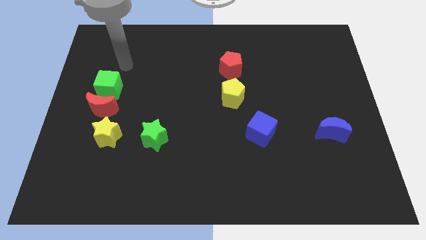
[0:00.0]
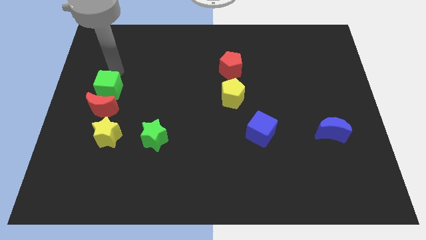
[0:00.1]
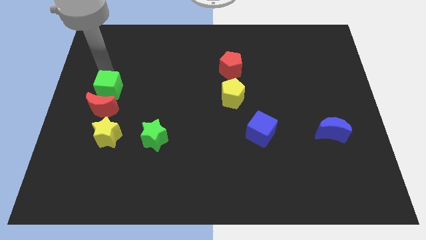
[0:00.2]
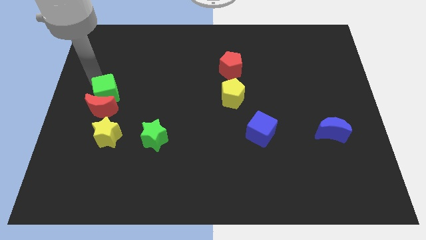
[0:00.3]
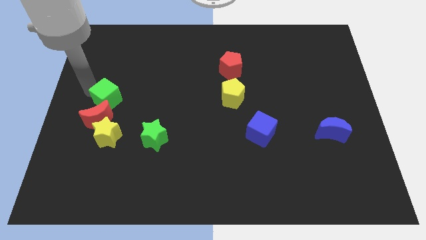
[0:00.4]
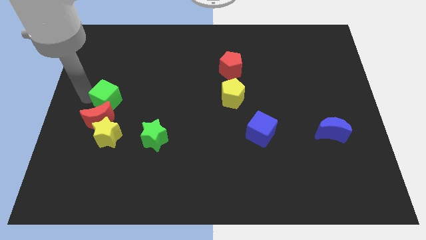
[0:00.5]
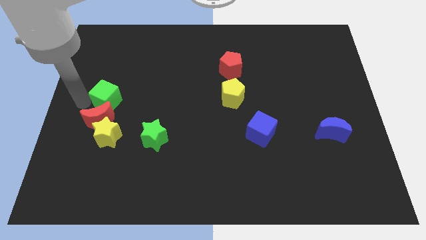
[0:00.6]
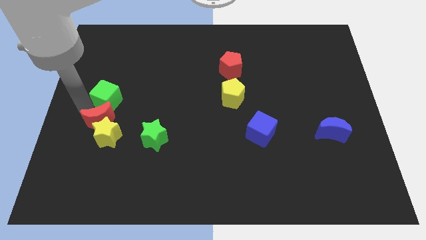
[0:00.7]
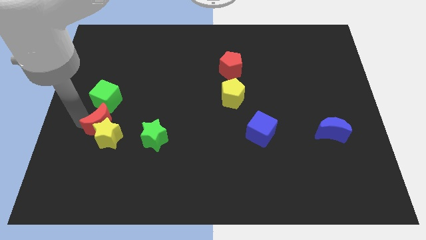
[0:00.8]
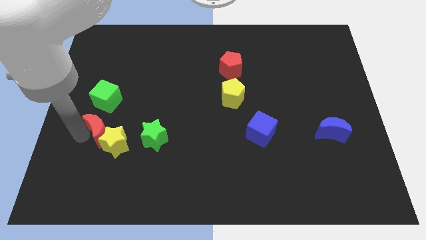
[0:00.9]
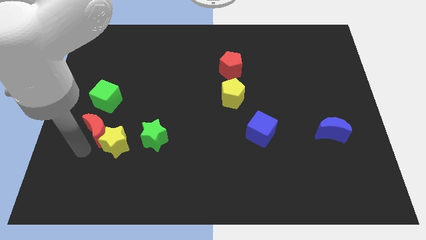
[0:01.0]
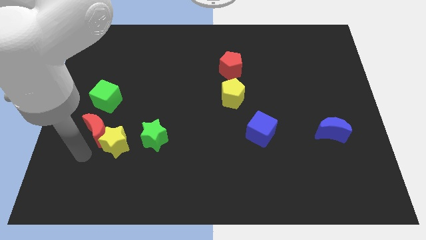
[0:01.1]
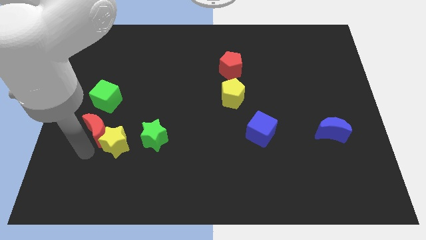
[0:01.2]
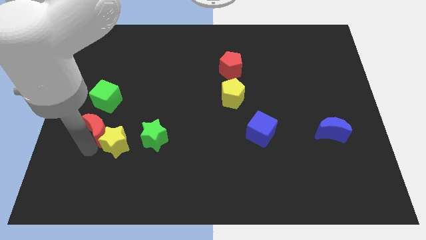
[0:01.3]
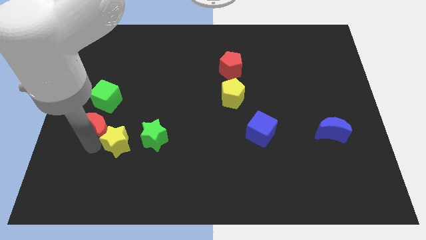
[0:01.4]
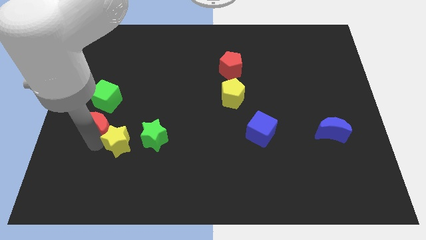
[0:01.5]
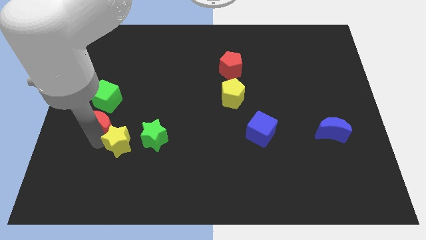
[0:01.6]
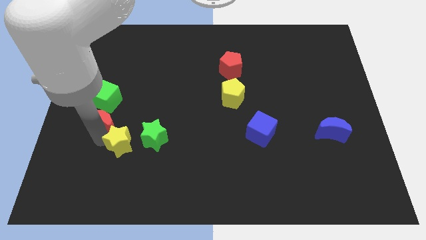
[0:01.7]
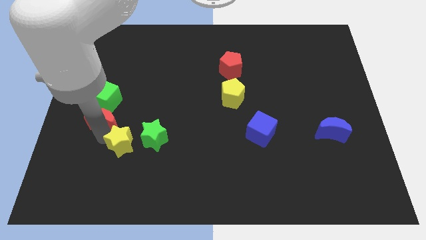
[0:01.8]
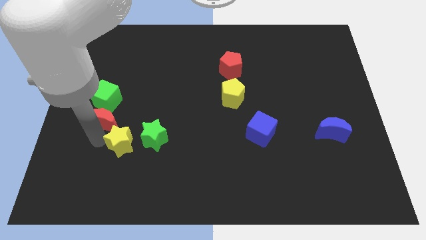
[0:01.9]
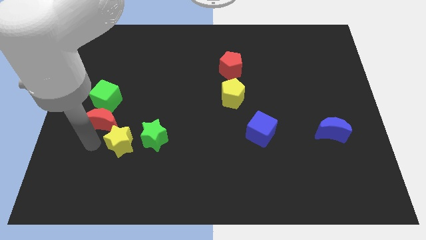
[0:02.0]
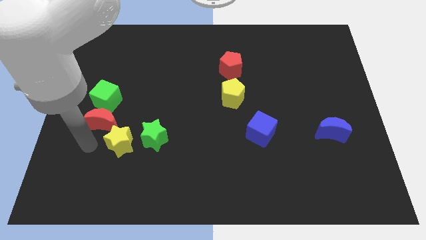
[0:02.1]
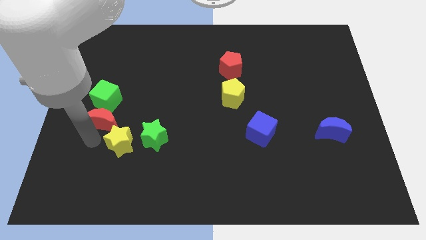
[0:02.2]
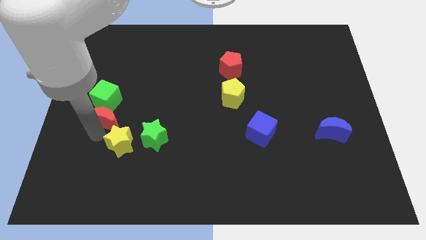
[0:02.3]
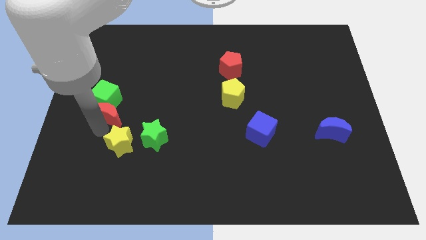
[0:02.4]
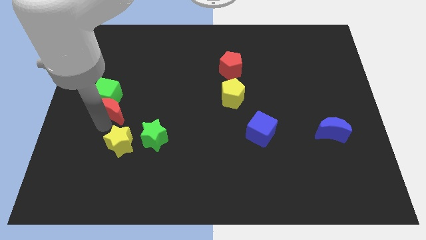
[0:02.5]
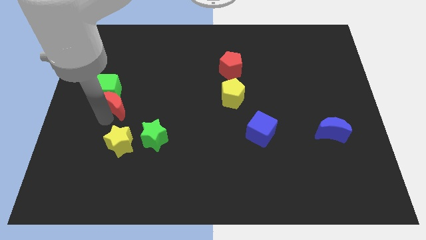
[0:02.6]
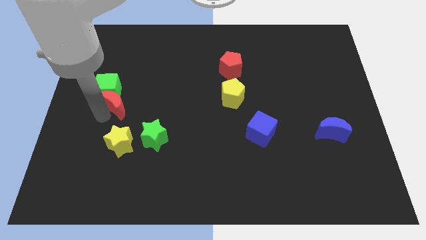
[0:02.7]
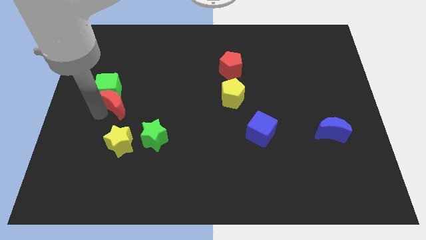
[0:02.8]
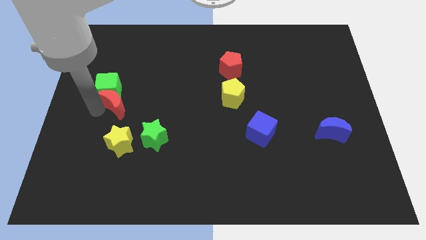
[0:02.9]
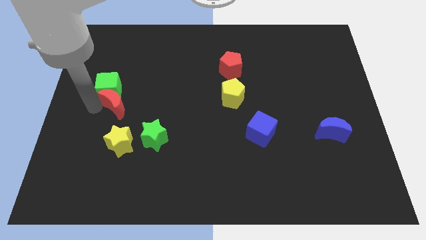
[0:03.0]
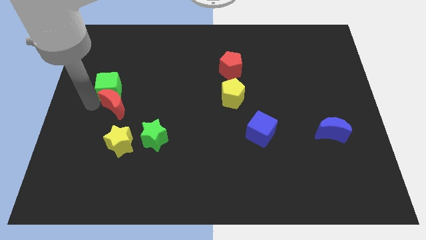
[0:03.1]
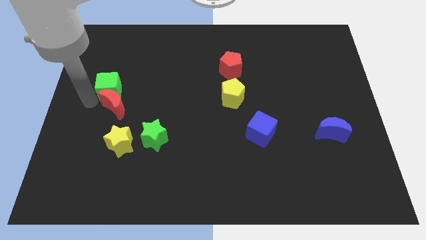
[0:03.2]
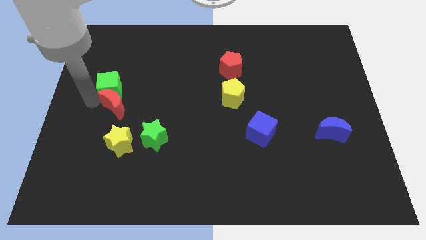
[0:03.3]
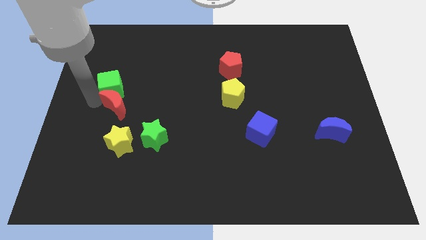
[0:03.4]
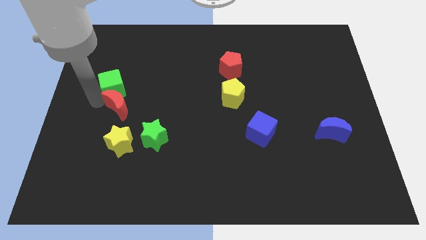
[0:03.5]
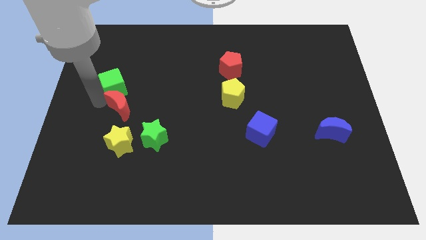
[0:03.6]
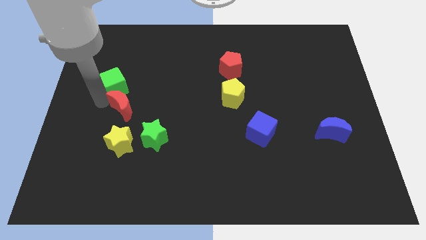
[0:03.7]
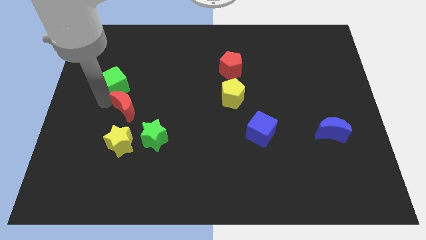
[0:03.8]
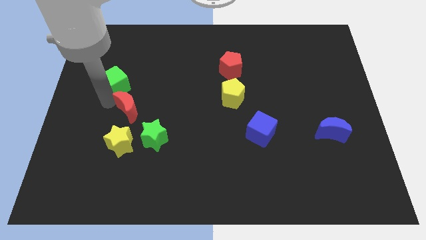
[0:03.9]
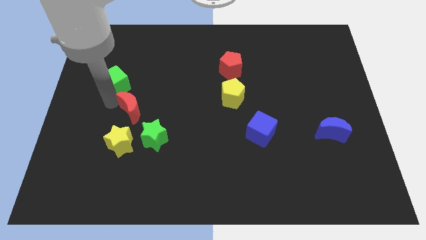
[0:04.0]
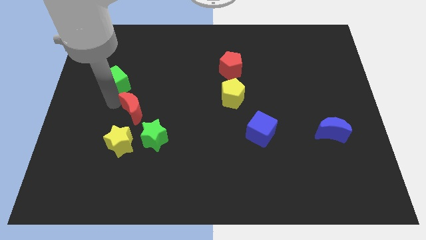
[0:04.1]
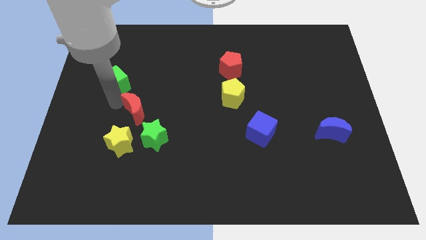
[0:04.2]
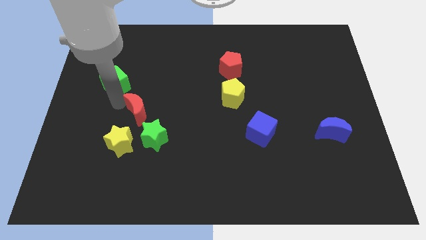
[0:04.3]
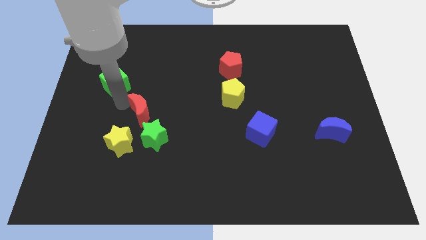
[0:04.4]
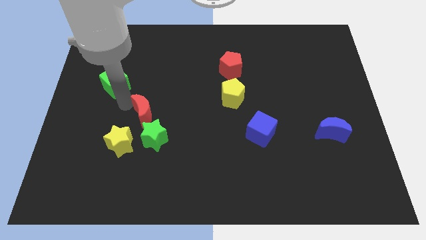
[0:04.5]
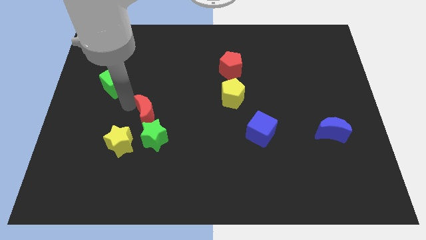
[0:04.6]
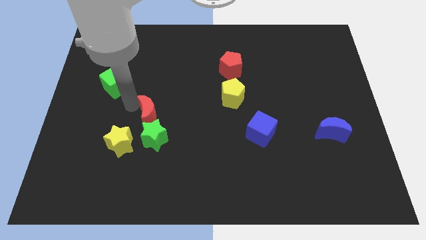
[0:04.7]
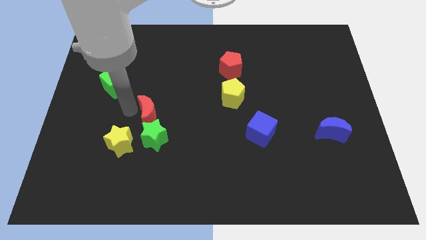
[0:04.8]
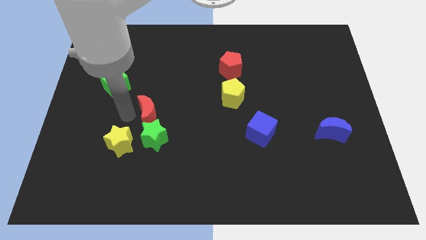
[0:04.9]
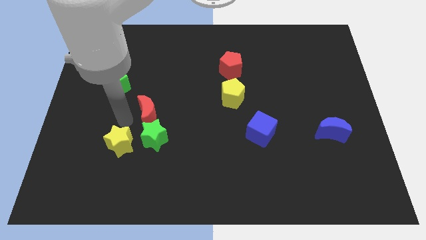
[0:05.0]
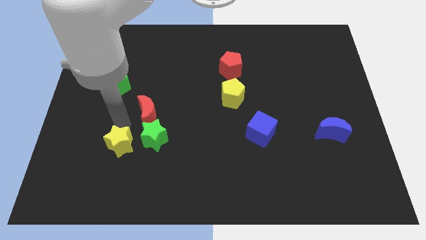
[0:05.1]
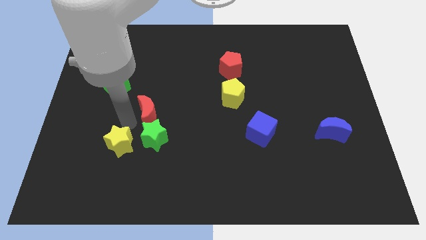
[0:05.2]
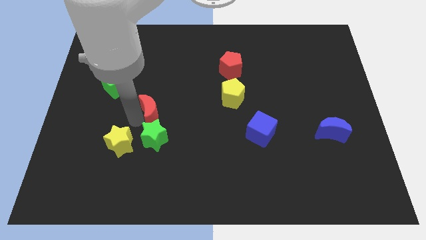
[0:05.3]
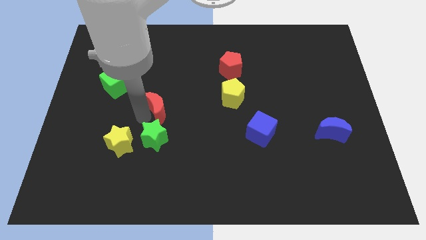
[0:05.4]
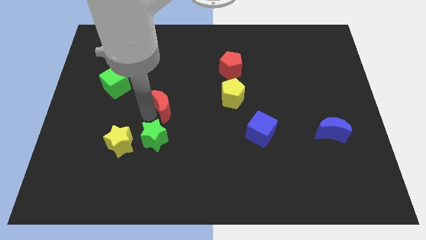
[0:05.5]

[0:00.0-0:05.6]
put the red moon to the center of the board
